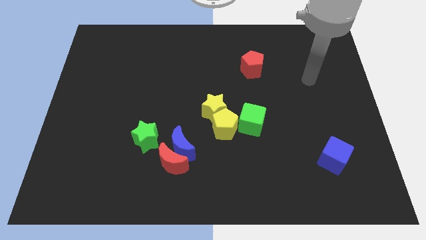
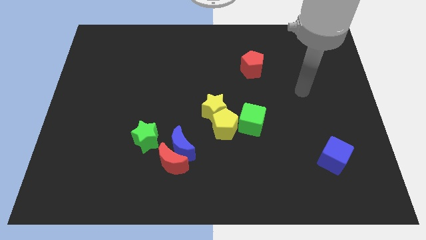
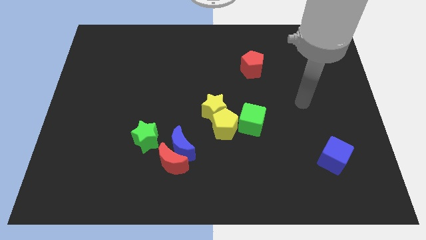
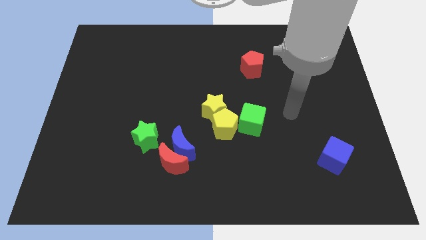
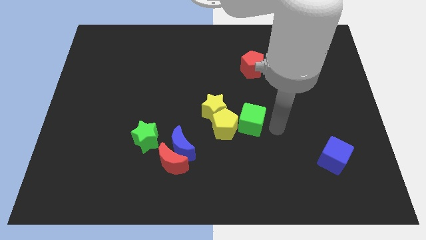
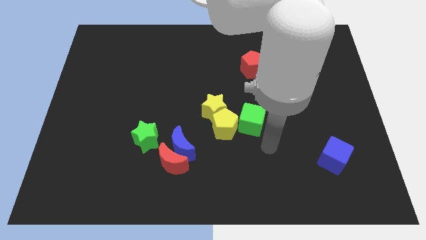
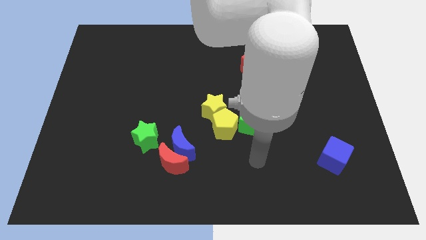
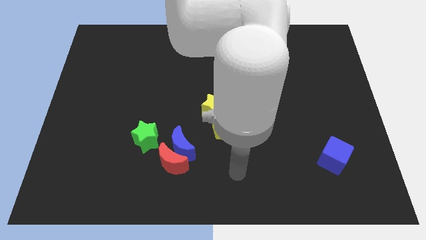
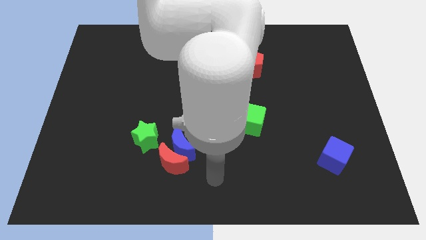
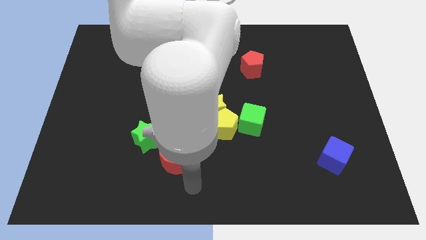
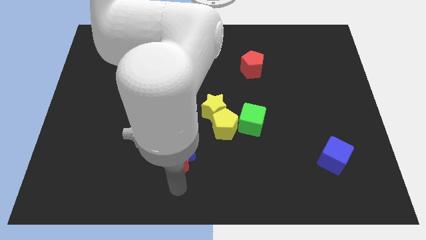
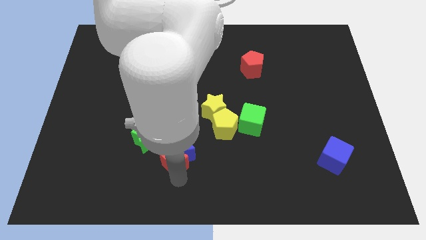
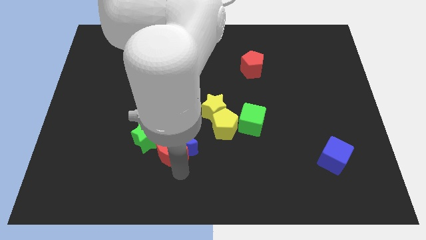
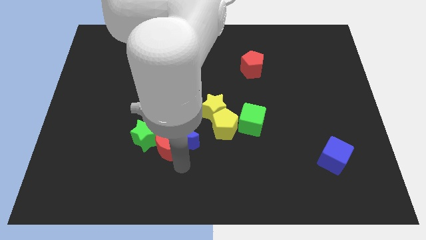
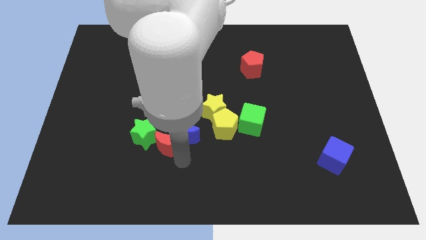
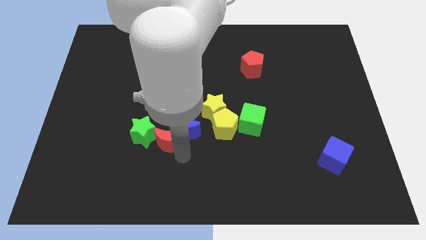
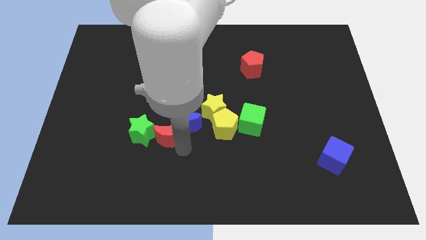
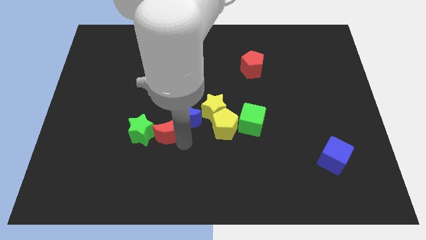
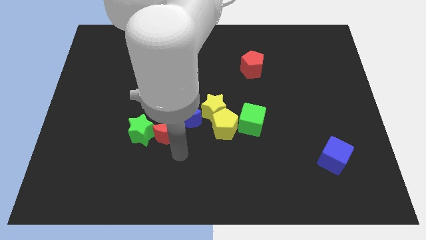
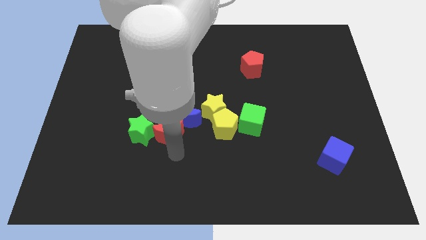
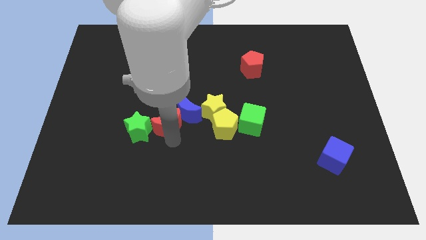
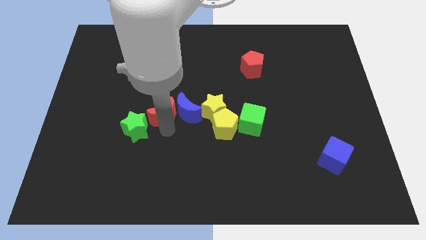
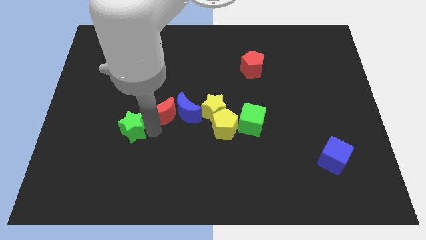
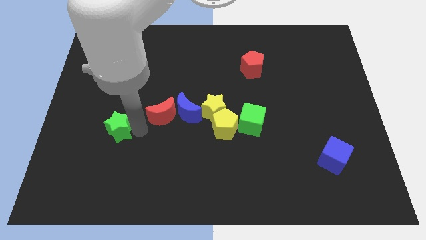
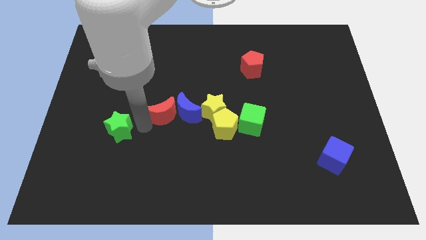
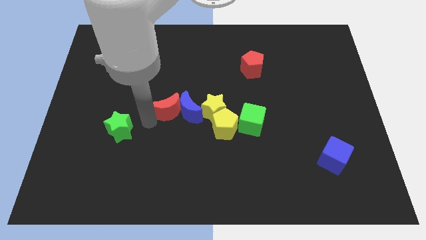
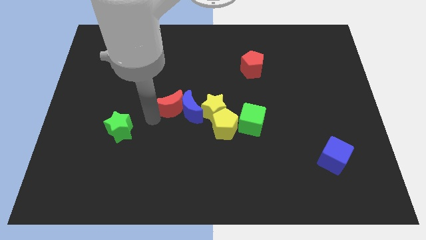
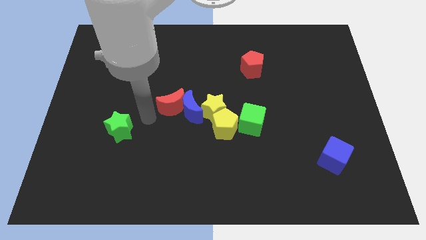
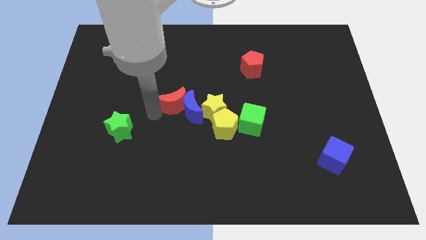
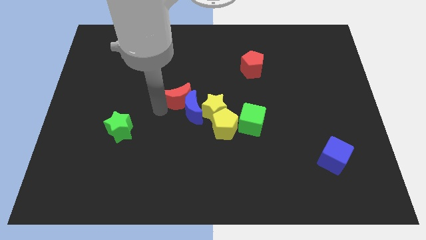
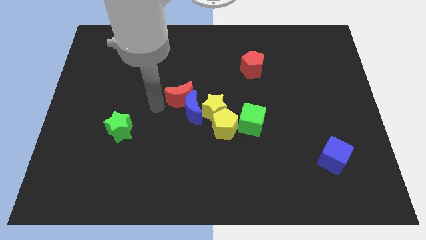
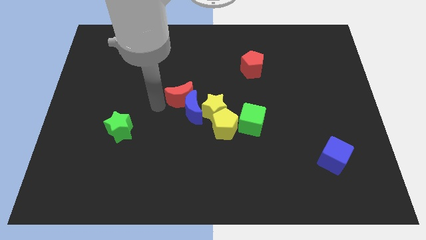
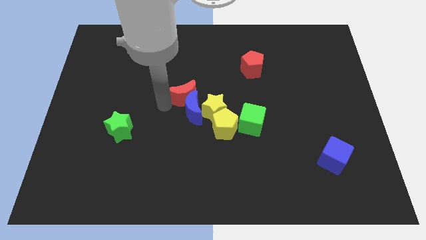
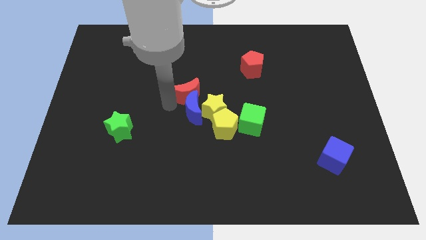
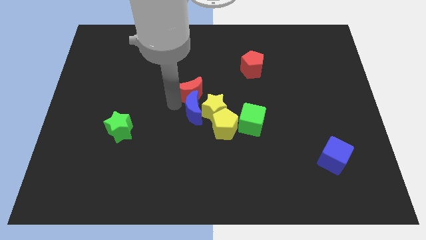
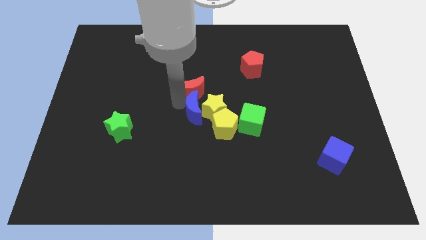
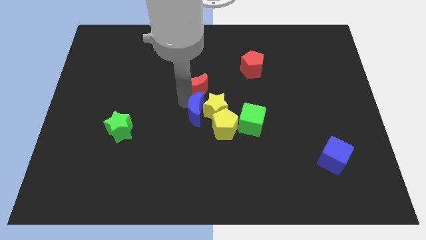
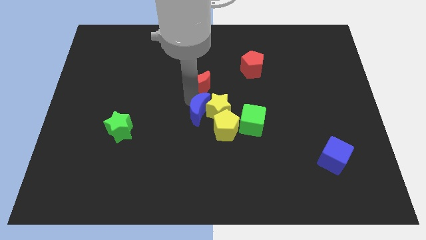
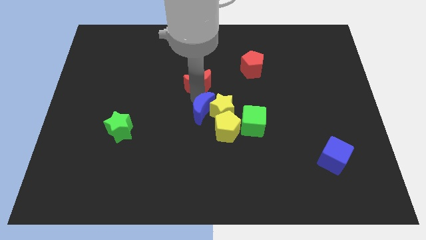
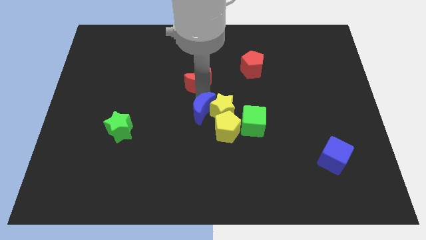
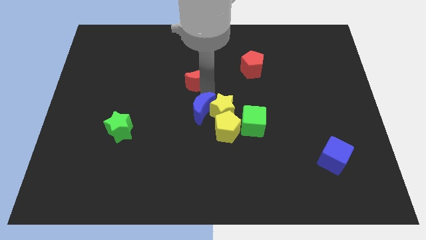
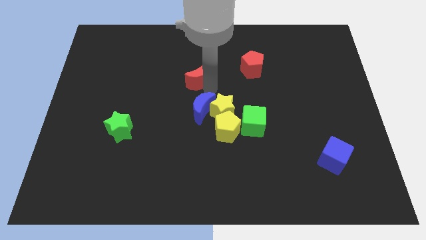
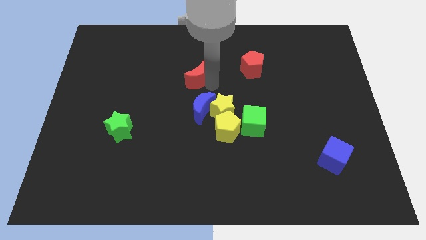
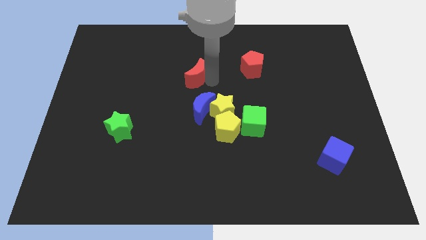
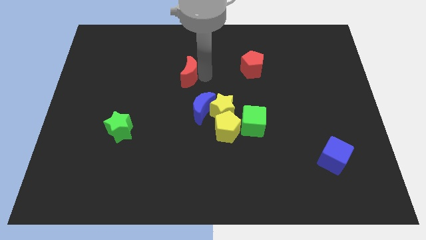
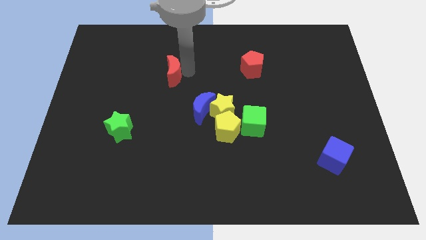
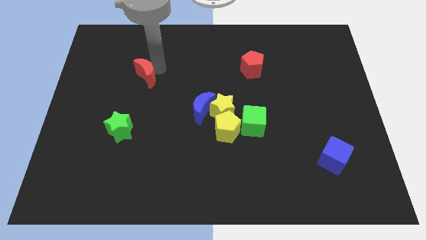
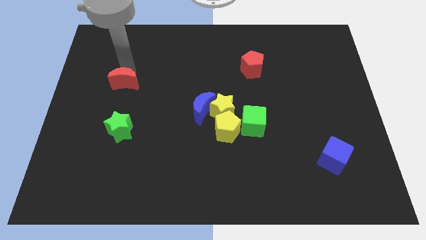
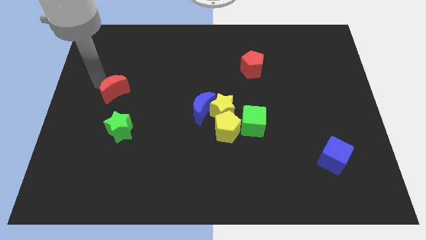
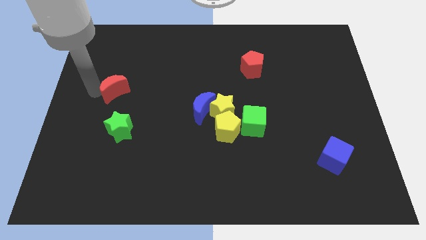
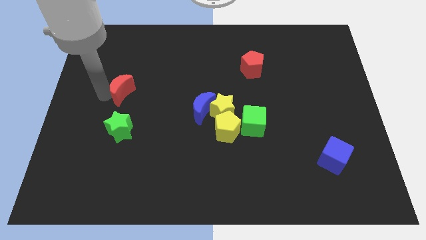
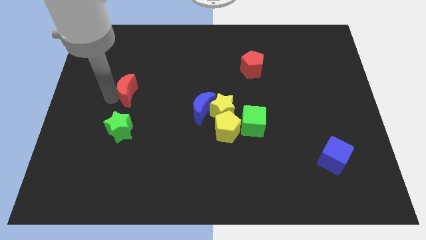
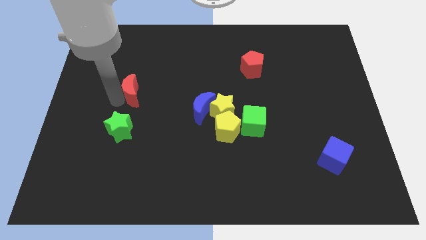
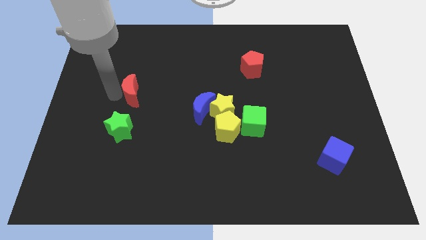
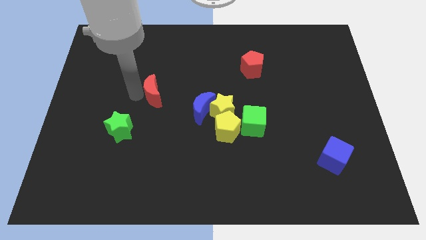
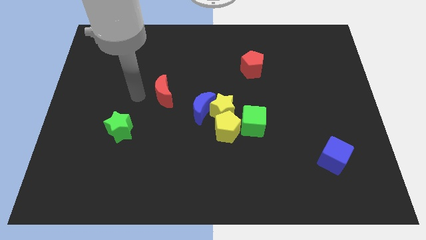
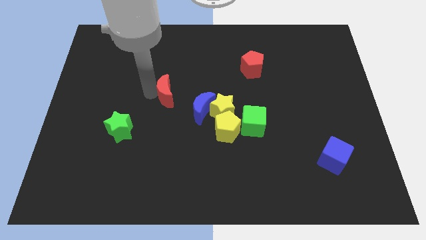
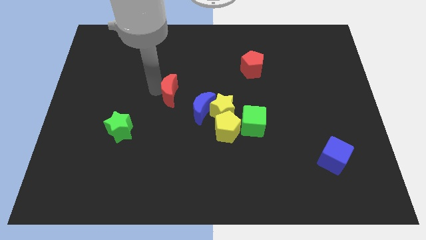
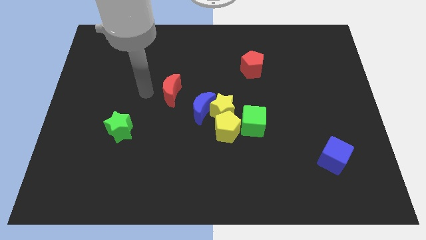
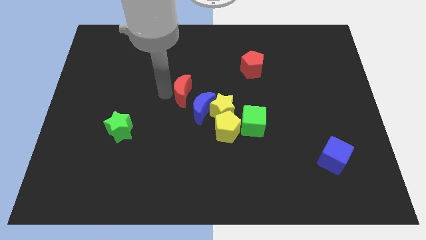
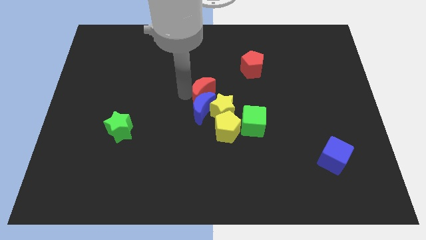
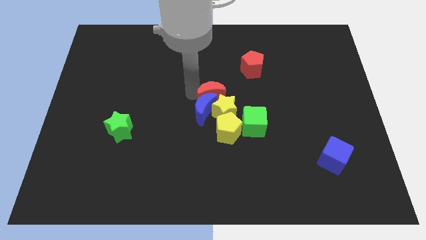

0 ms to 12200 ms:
slide the red moon to the top side of the yellow pentagon

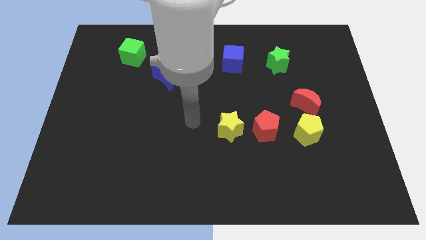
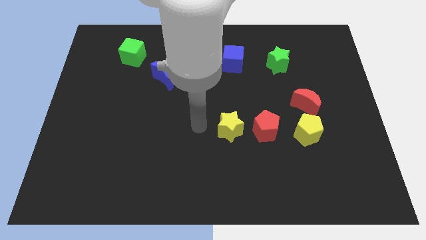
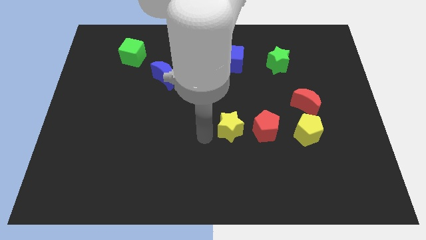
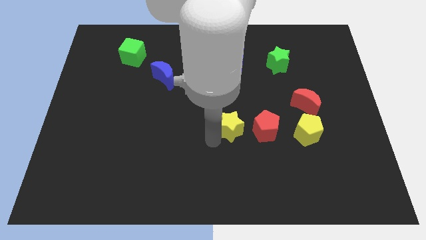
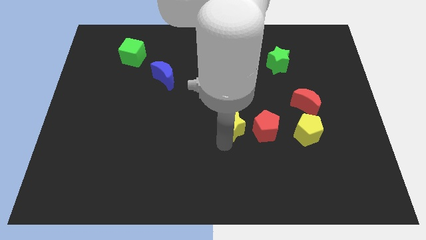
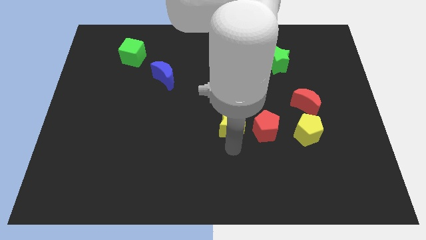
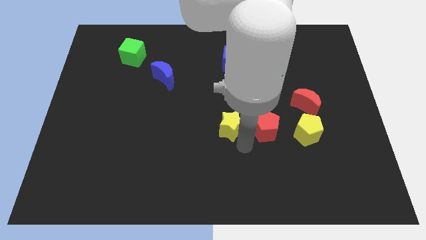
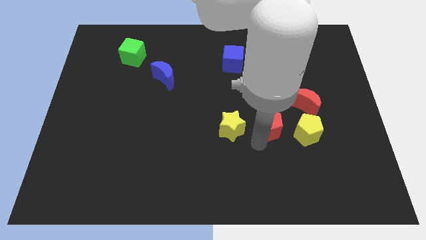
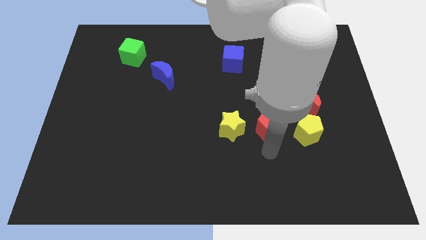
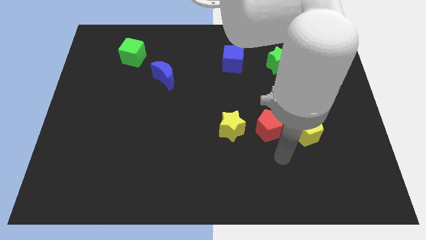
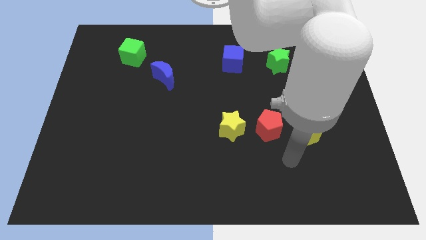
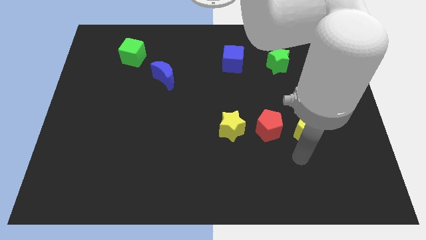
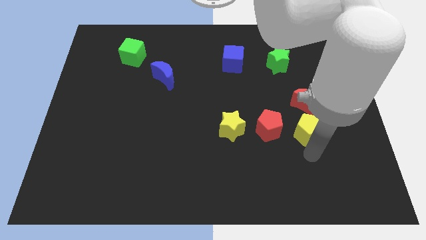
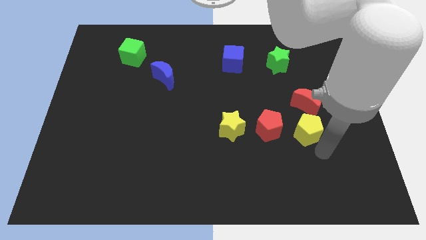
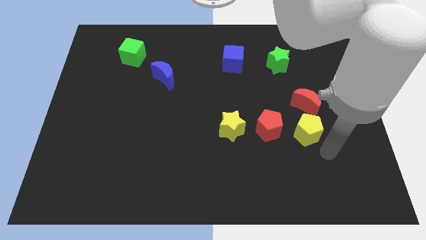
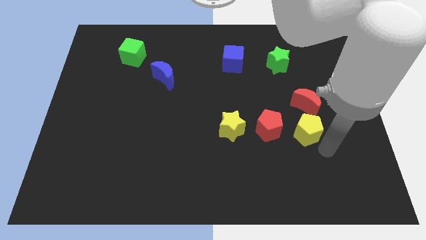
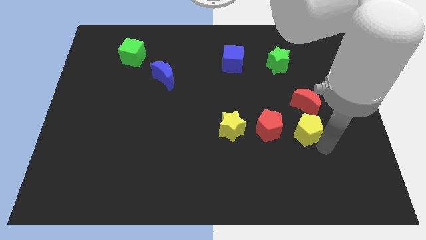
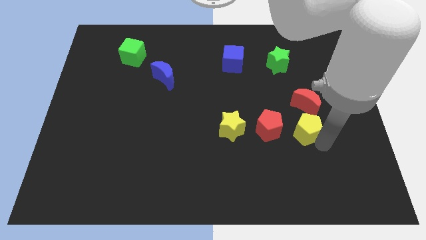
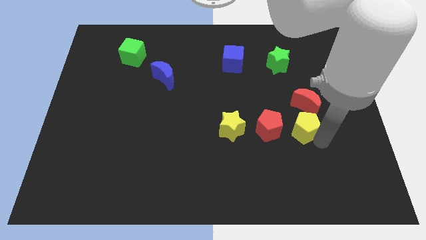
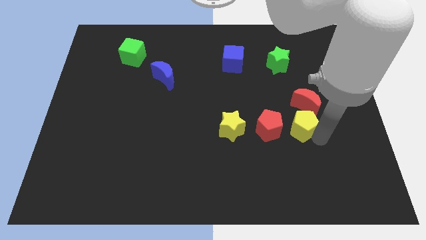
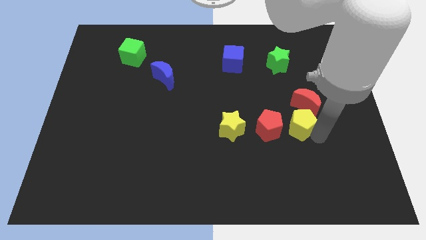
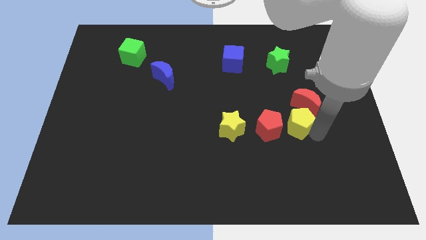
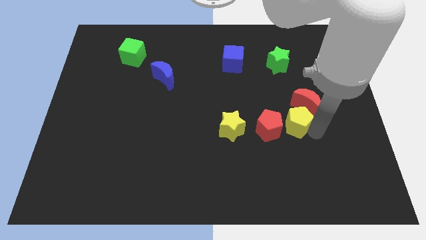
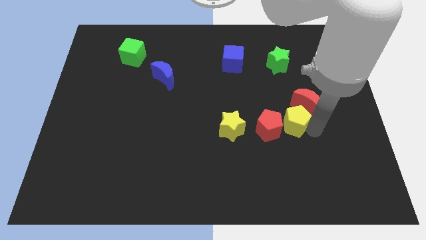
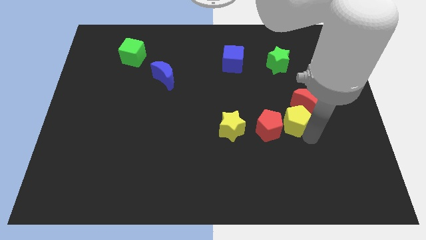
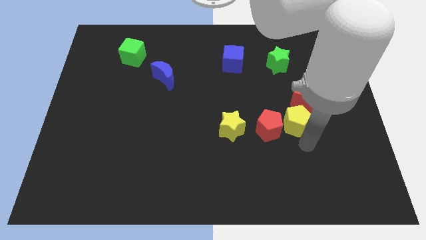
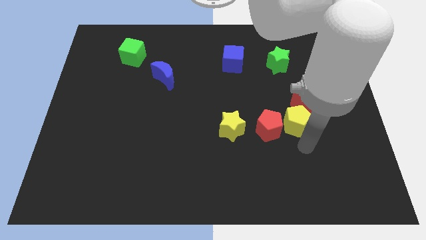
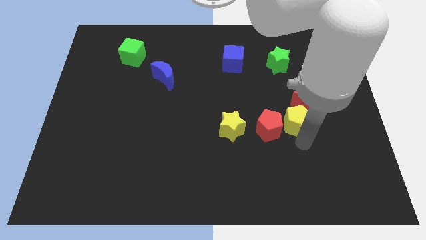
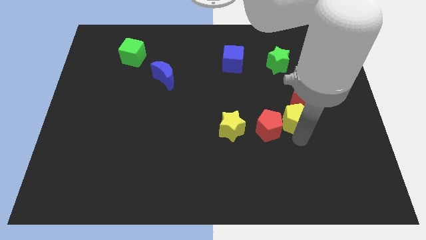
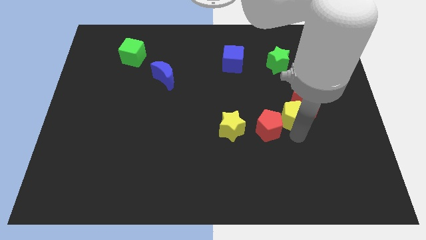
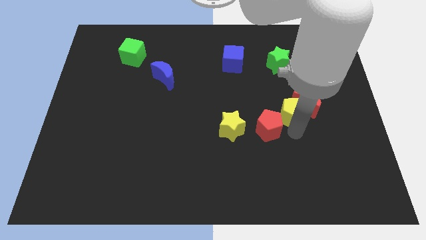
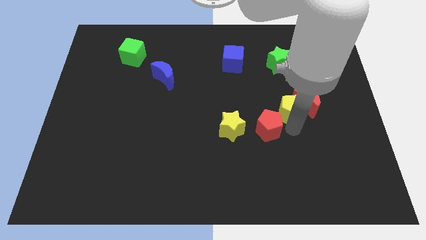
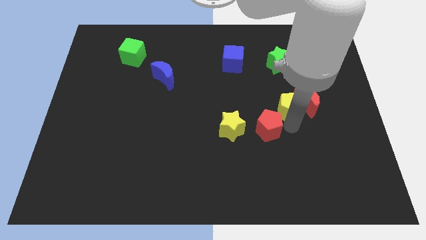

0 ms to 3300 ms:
push the yellow pentagon diagonally up and to the left of the red moon
